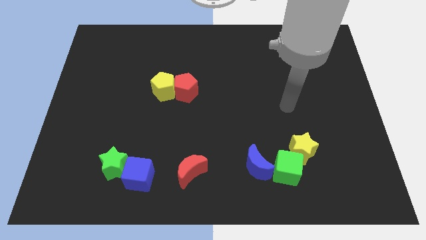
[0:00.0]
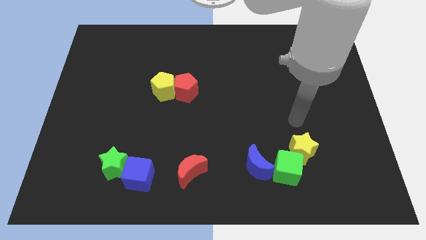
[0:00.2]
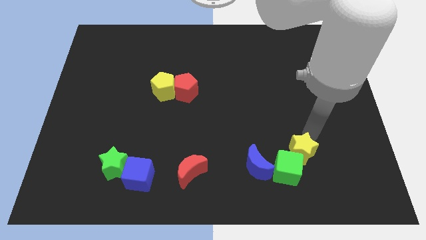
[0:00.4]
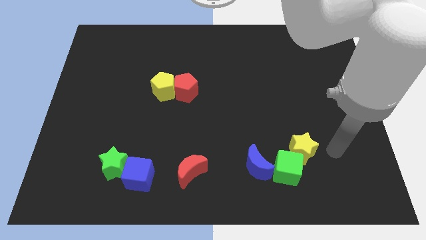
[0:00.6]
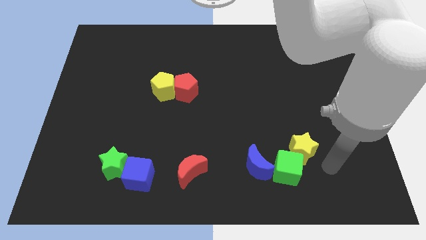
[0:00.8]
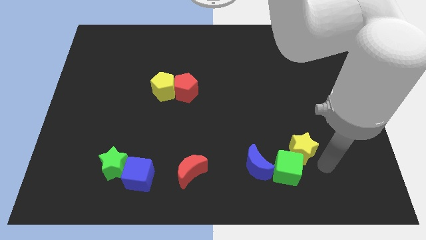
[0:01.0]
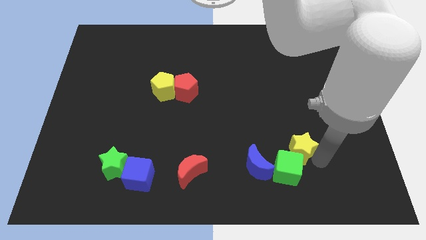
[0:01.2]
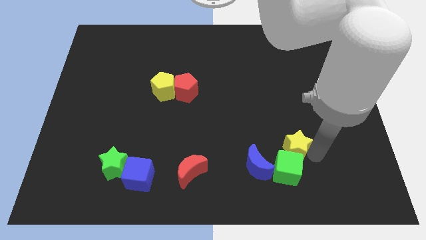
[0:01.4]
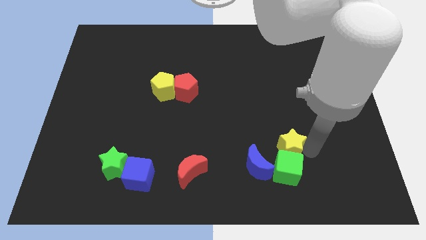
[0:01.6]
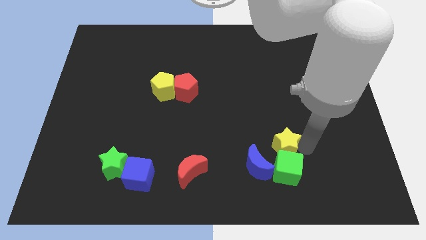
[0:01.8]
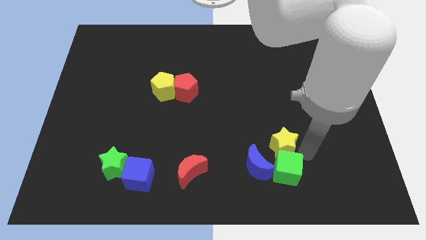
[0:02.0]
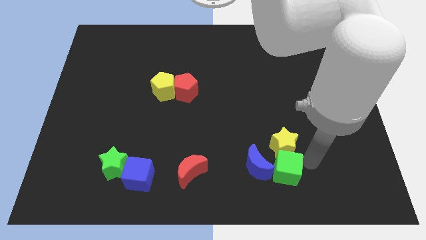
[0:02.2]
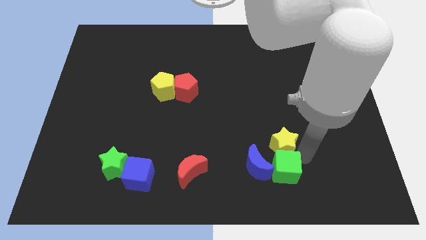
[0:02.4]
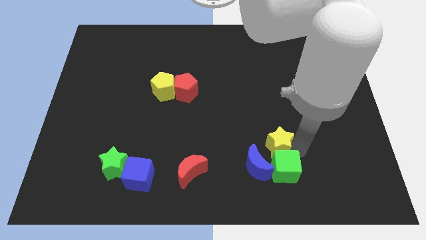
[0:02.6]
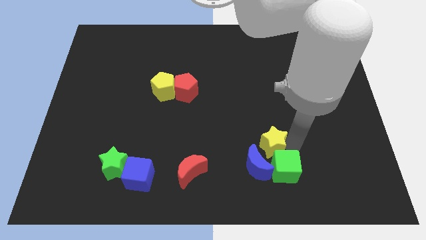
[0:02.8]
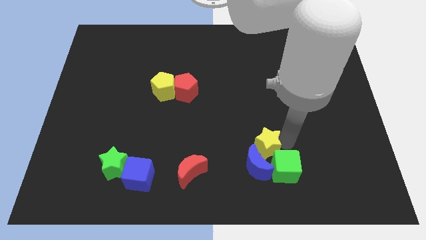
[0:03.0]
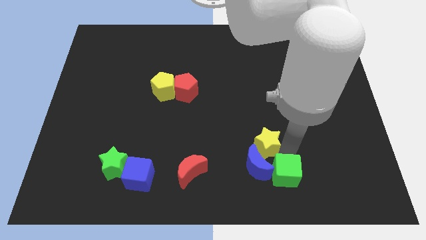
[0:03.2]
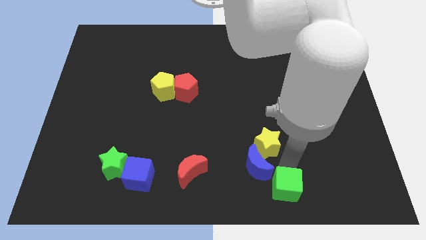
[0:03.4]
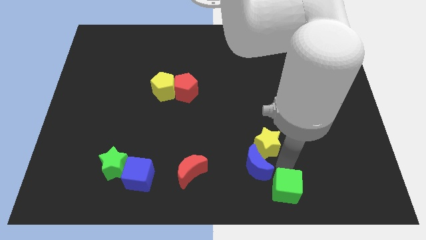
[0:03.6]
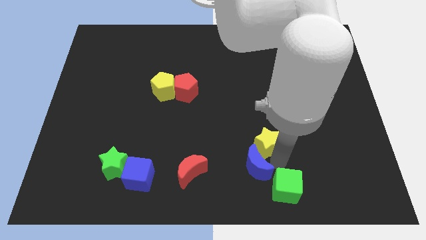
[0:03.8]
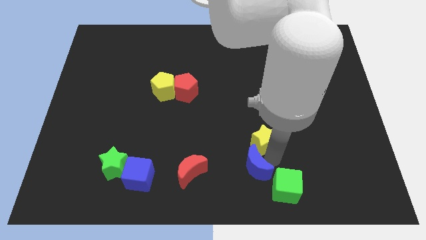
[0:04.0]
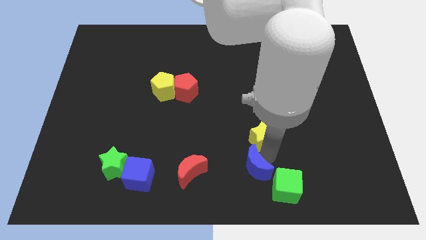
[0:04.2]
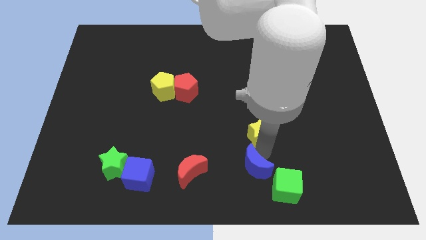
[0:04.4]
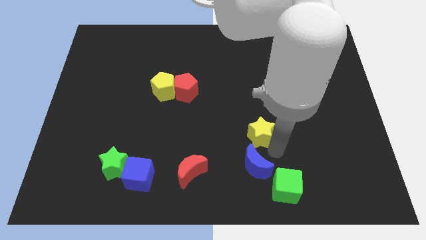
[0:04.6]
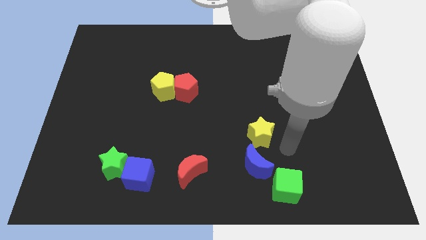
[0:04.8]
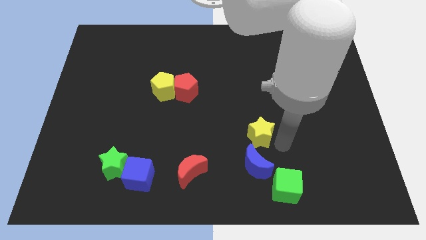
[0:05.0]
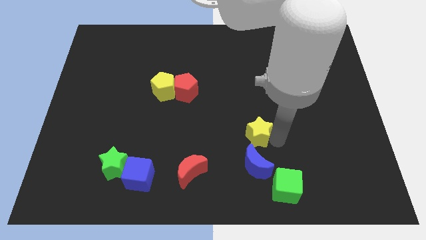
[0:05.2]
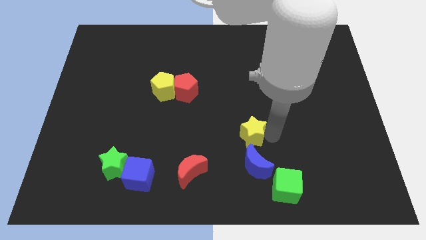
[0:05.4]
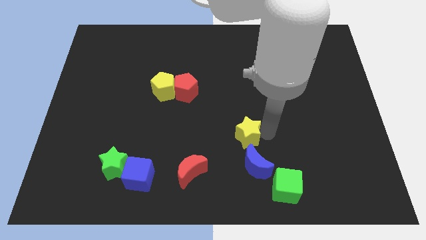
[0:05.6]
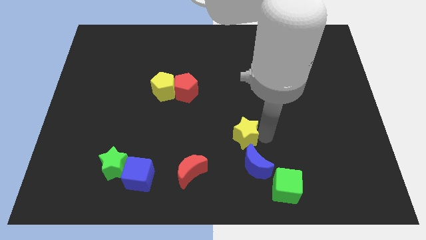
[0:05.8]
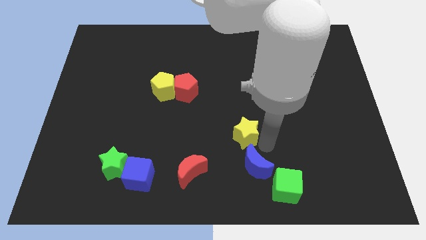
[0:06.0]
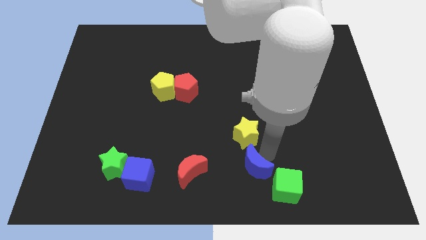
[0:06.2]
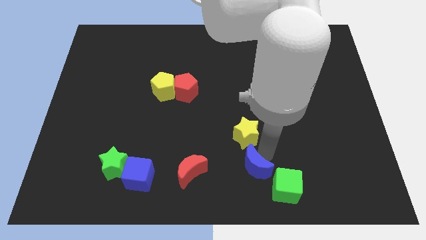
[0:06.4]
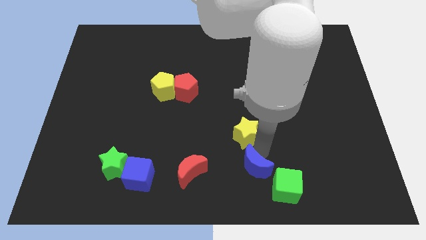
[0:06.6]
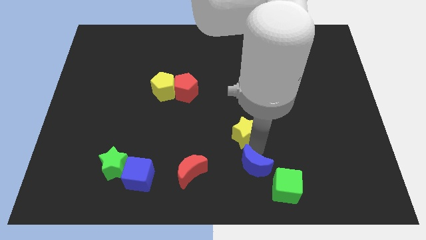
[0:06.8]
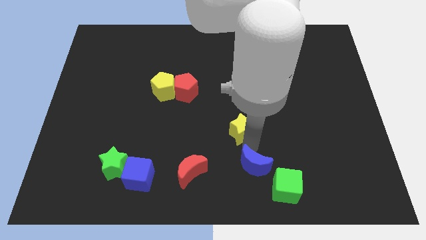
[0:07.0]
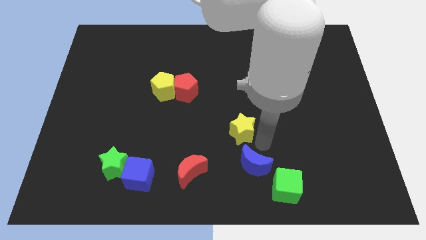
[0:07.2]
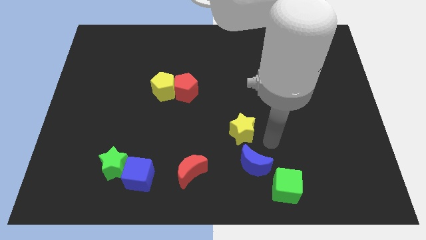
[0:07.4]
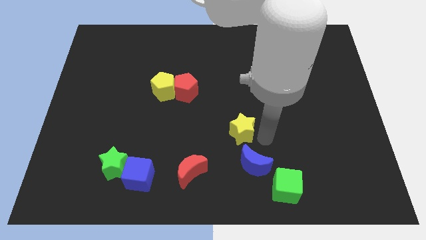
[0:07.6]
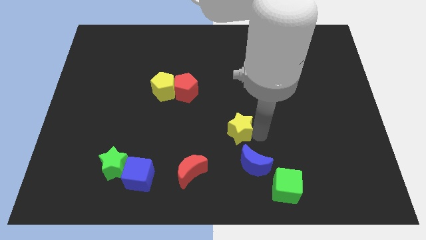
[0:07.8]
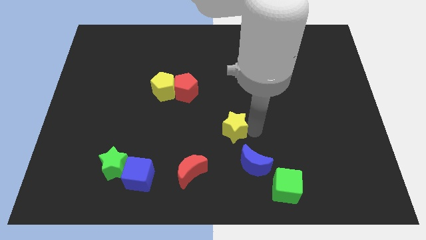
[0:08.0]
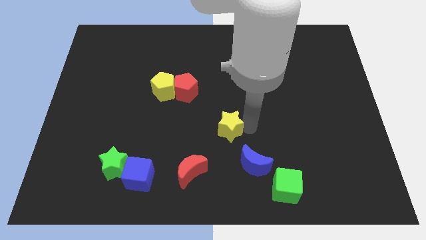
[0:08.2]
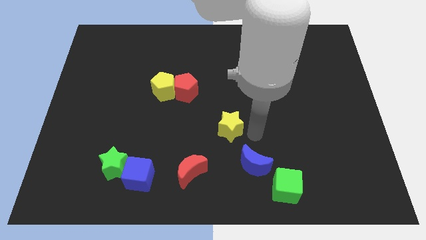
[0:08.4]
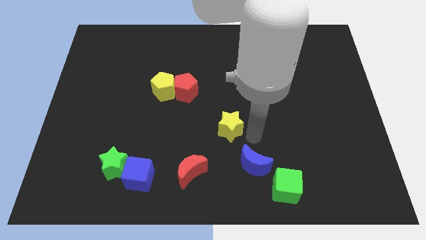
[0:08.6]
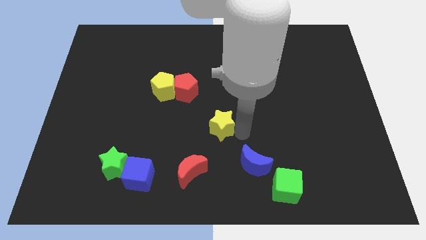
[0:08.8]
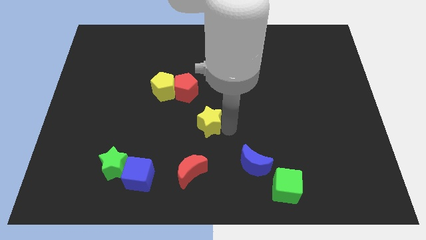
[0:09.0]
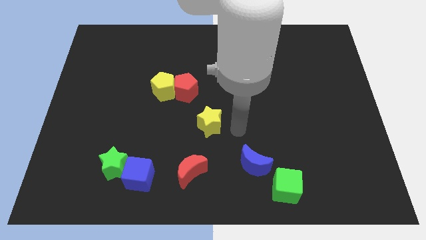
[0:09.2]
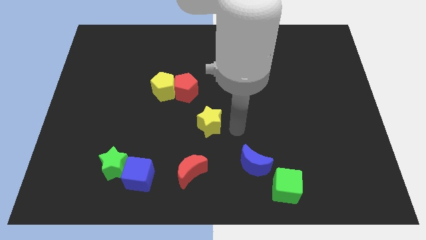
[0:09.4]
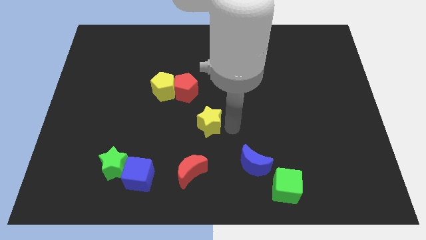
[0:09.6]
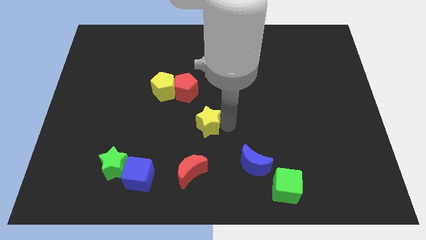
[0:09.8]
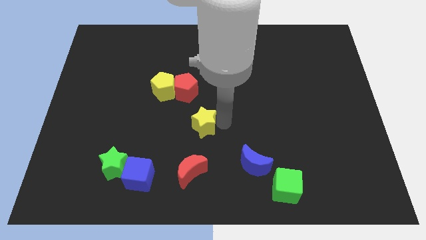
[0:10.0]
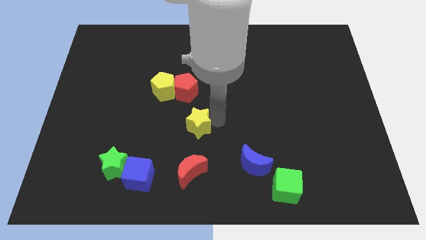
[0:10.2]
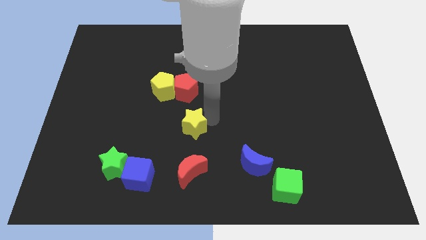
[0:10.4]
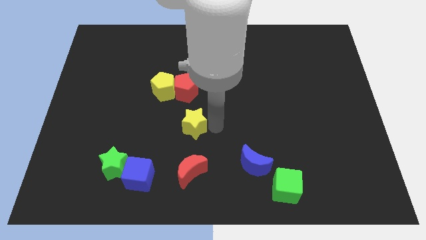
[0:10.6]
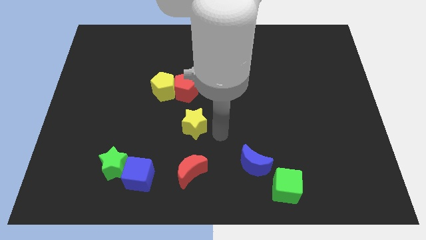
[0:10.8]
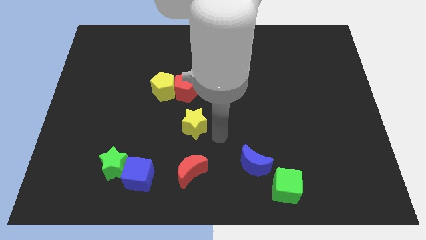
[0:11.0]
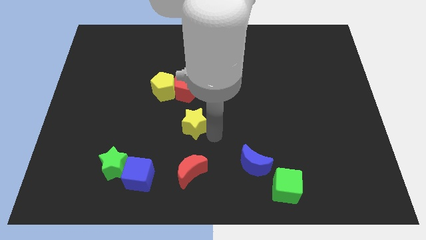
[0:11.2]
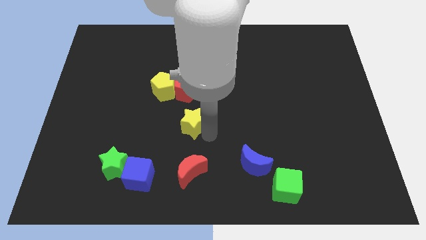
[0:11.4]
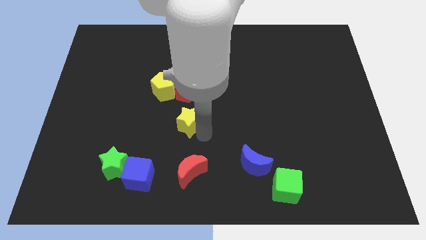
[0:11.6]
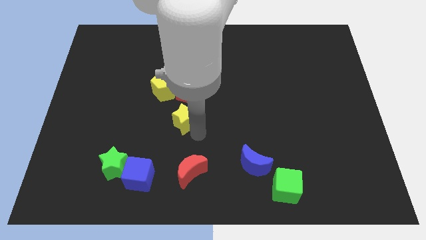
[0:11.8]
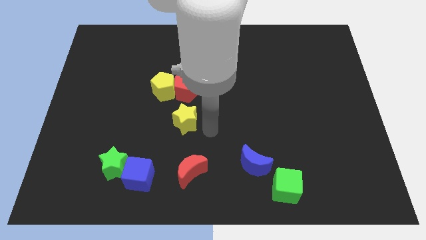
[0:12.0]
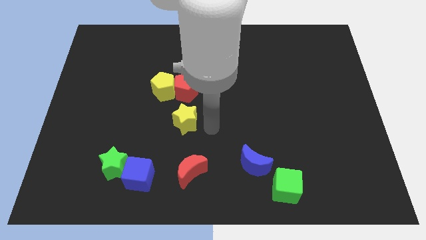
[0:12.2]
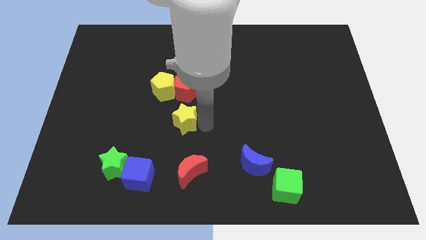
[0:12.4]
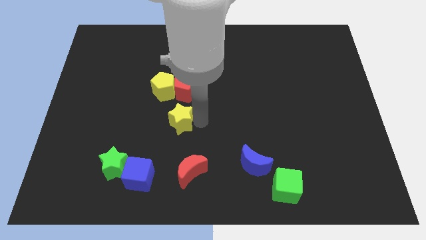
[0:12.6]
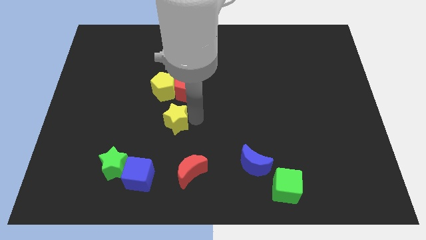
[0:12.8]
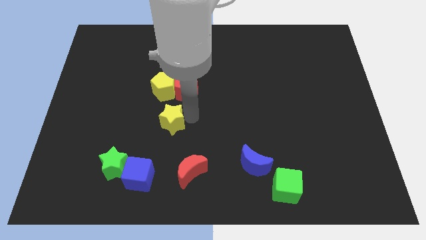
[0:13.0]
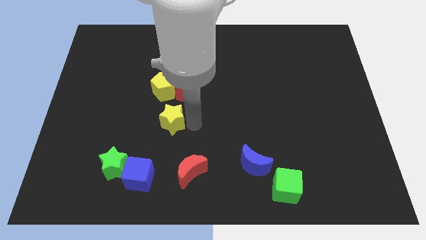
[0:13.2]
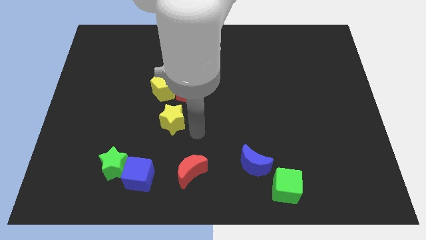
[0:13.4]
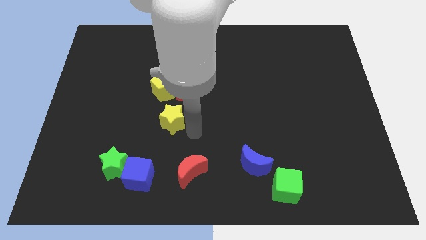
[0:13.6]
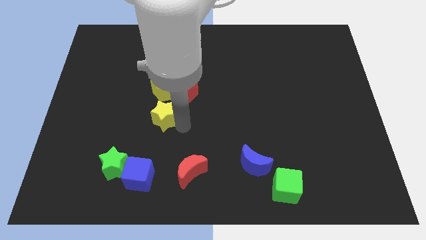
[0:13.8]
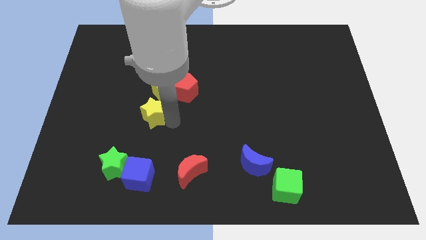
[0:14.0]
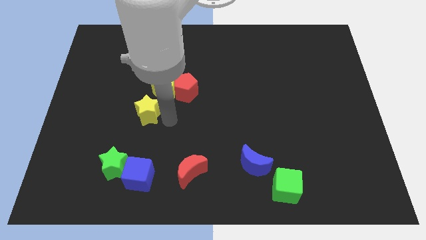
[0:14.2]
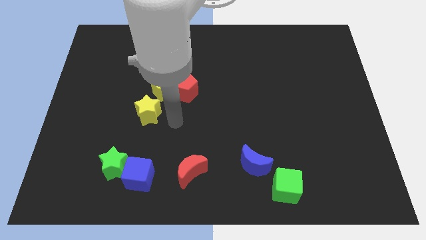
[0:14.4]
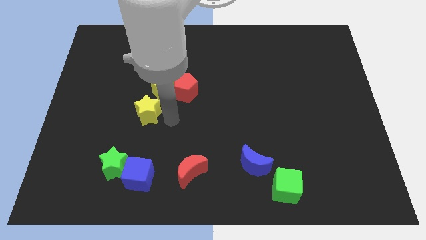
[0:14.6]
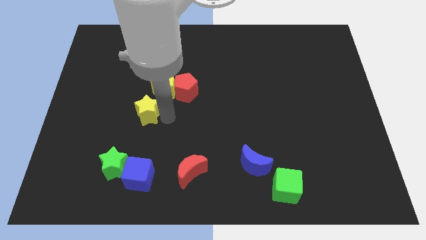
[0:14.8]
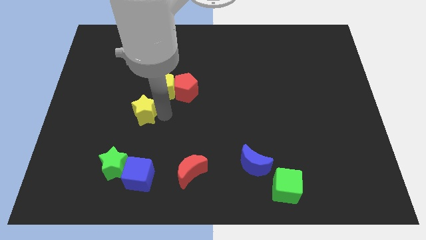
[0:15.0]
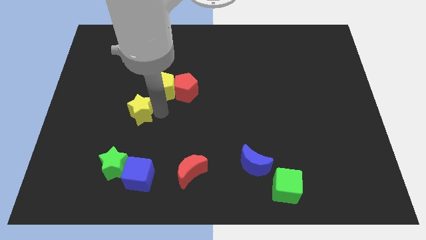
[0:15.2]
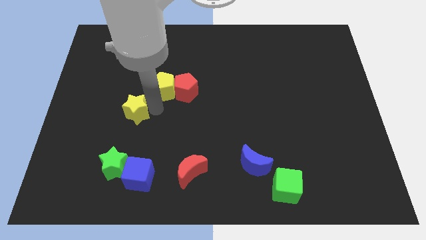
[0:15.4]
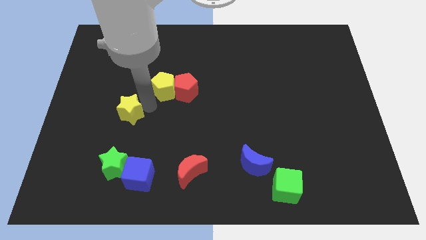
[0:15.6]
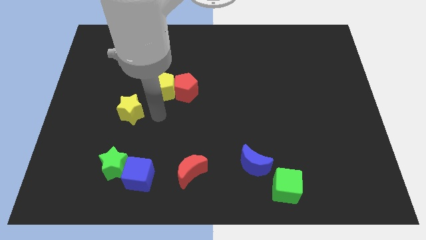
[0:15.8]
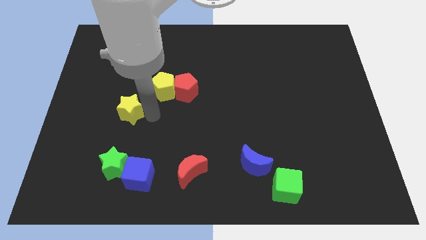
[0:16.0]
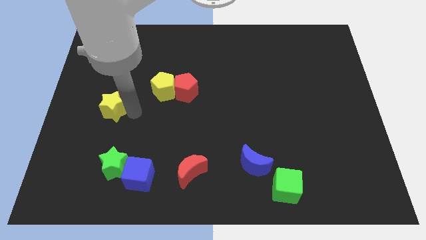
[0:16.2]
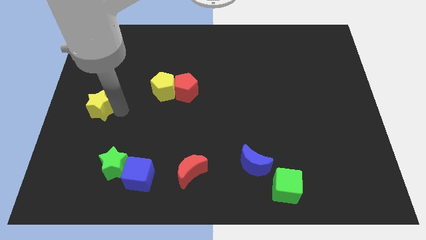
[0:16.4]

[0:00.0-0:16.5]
slide the yellow star to the center left

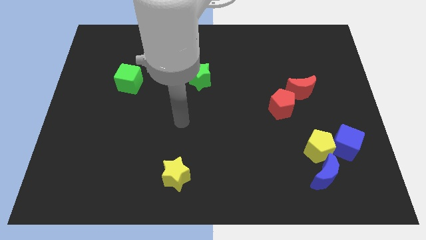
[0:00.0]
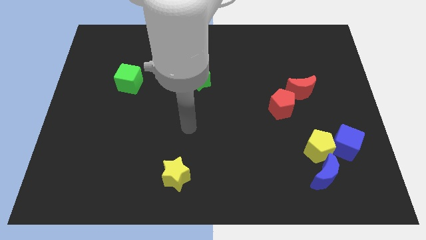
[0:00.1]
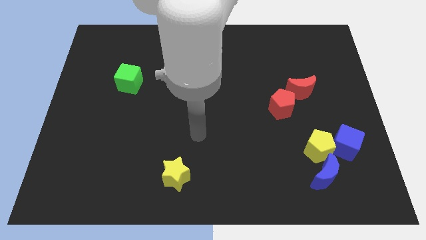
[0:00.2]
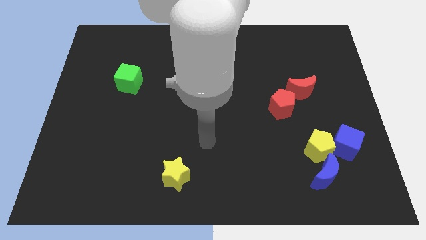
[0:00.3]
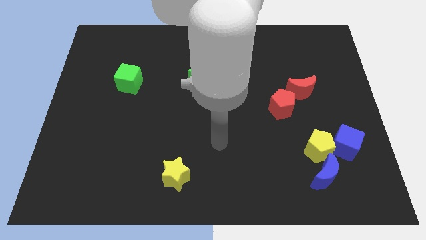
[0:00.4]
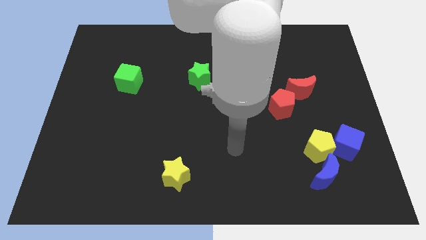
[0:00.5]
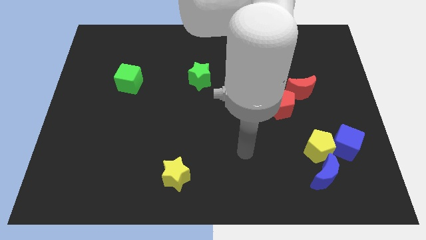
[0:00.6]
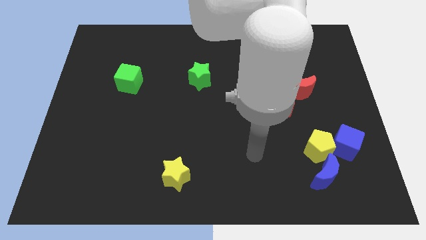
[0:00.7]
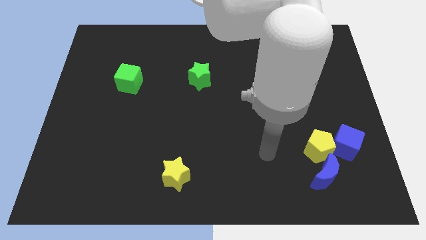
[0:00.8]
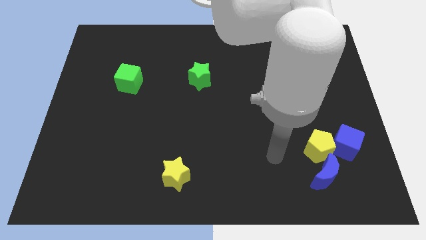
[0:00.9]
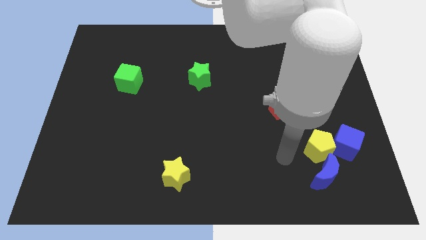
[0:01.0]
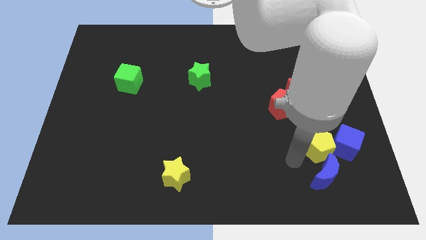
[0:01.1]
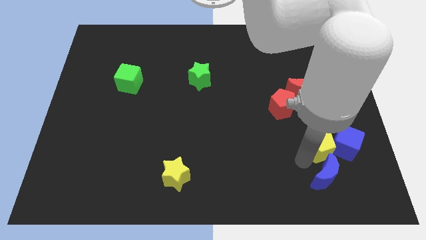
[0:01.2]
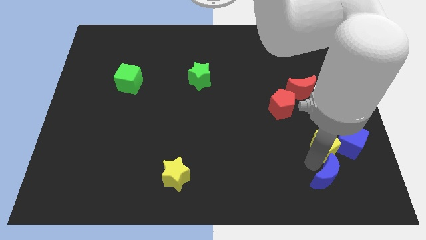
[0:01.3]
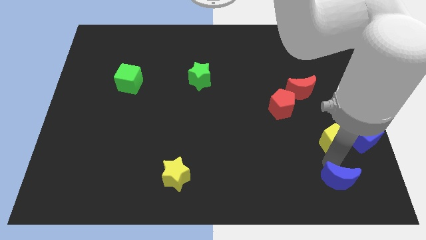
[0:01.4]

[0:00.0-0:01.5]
push the blue cube to the right side of the board
